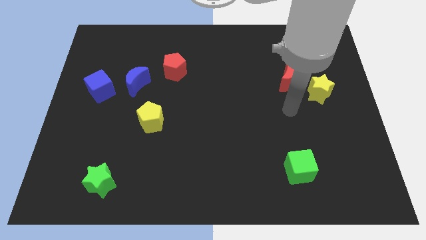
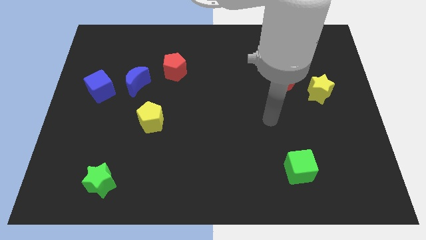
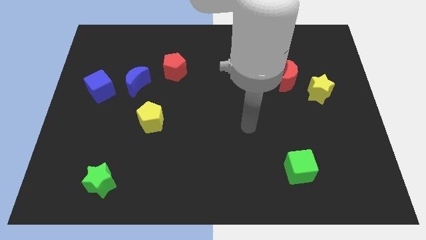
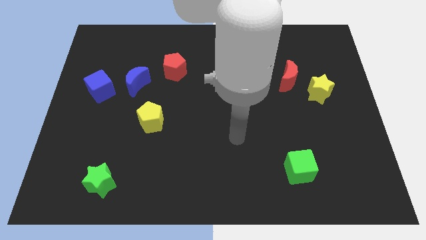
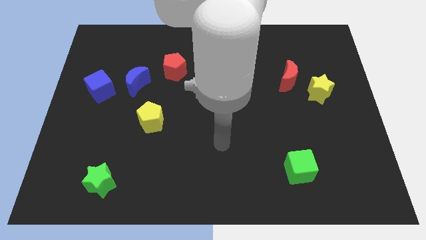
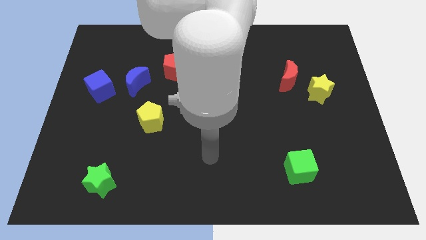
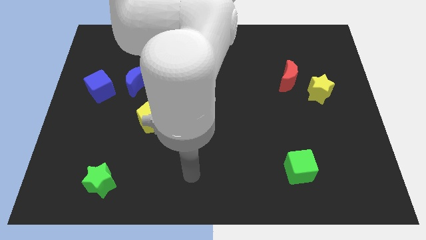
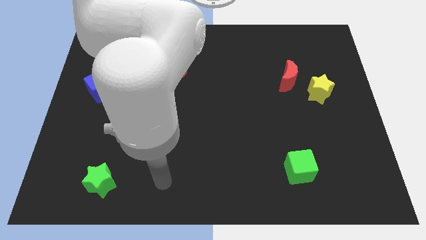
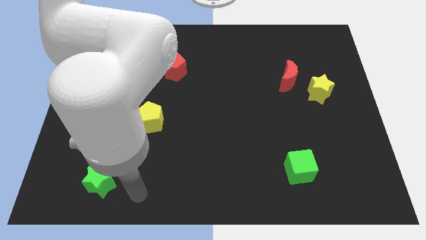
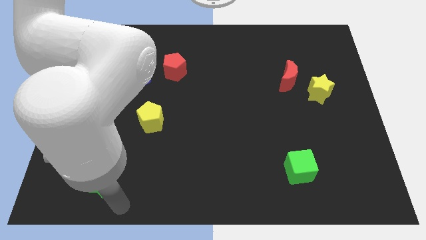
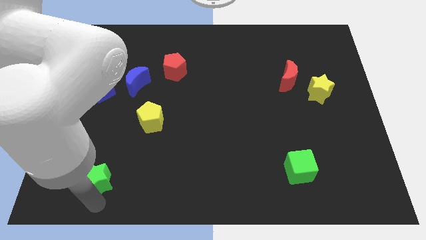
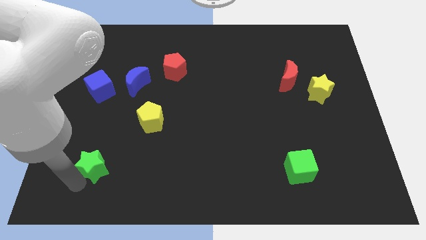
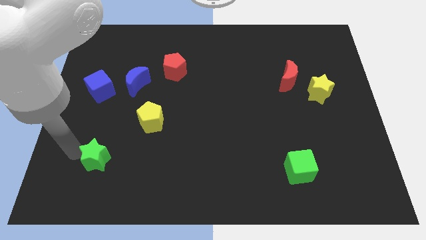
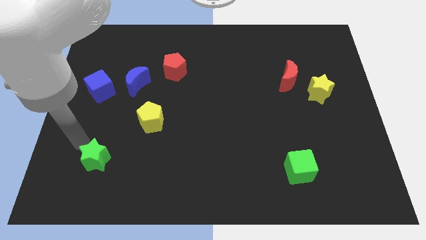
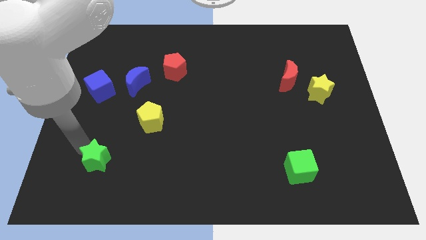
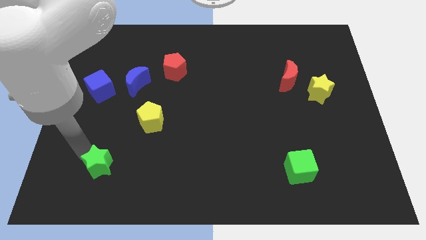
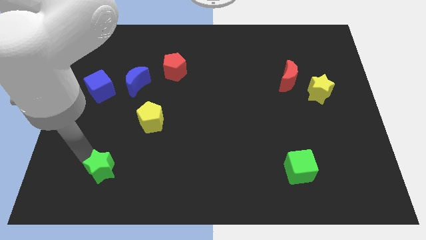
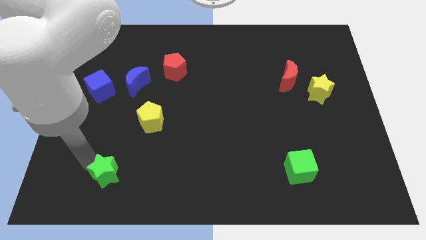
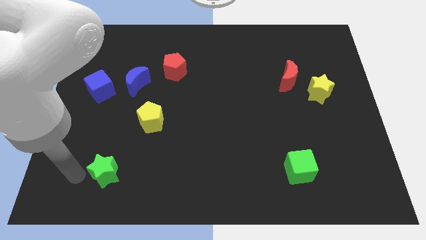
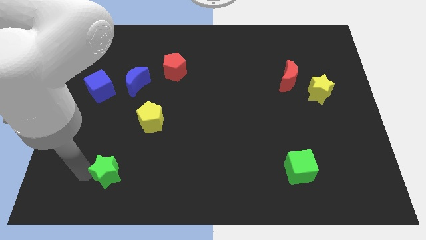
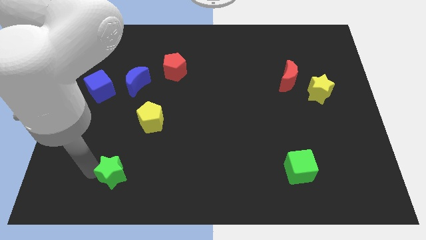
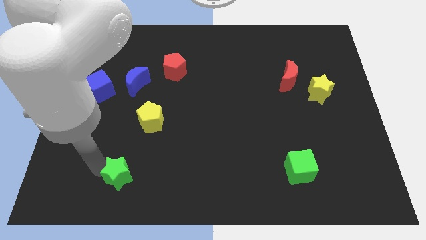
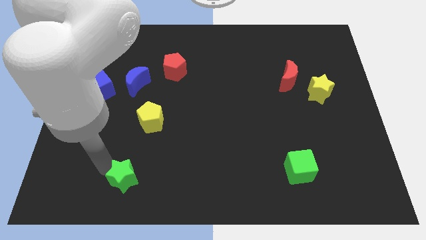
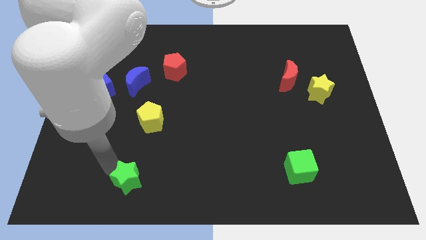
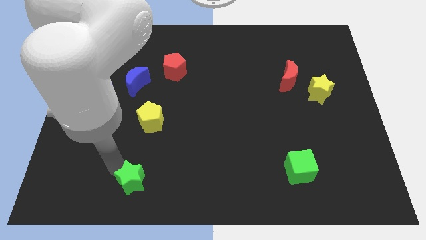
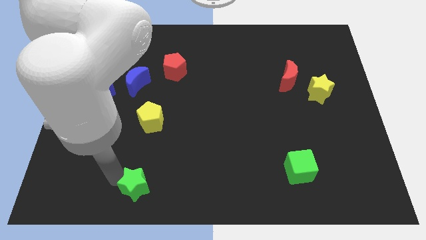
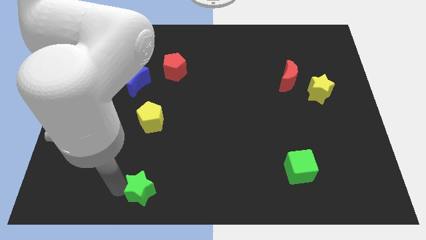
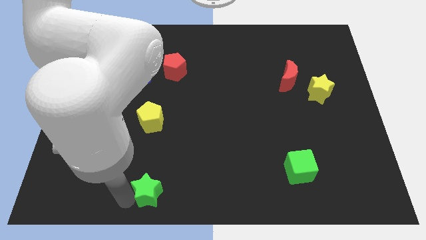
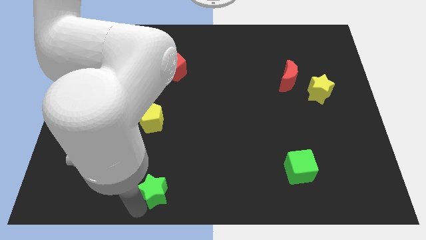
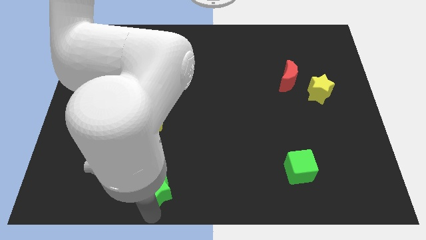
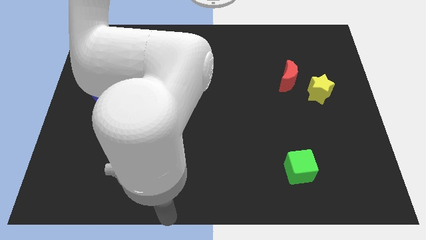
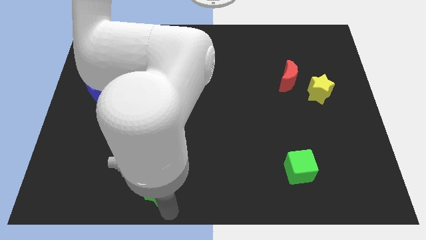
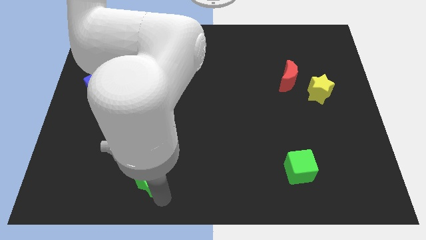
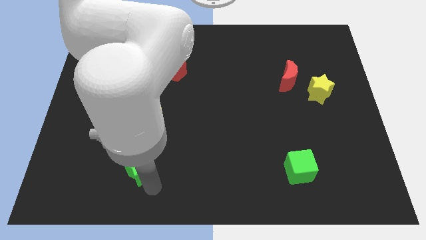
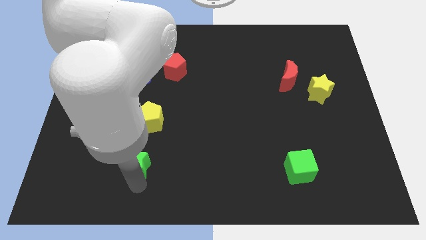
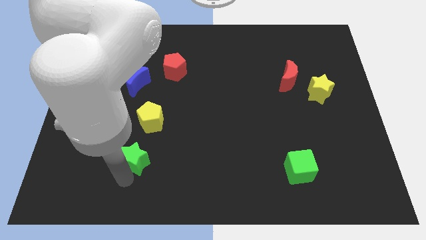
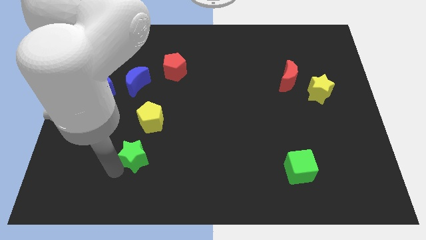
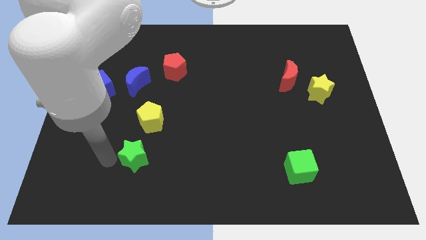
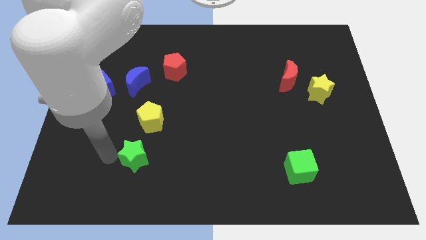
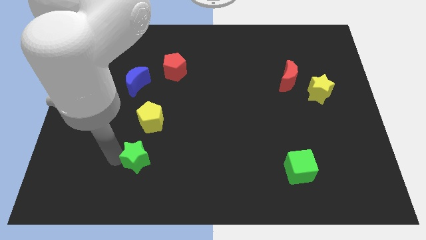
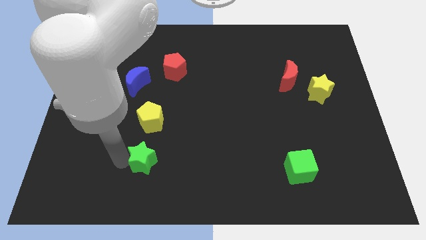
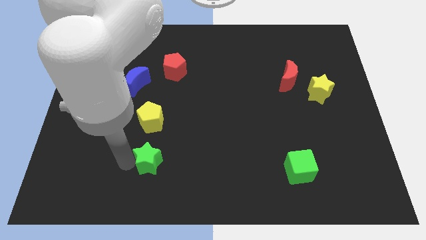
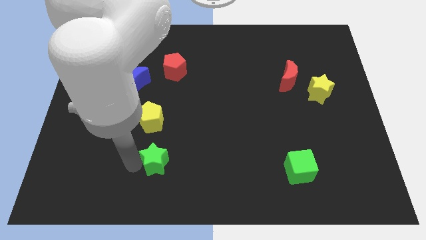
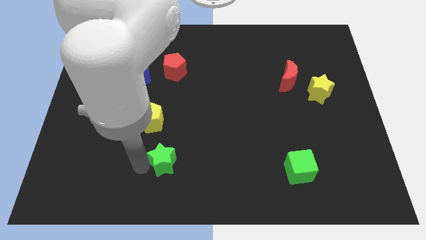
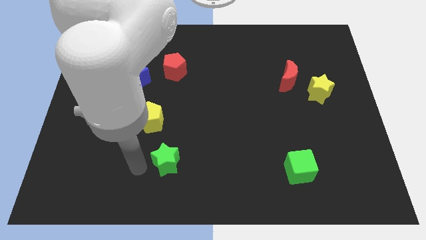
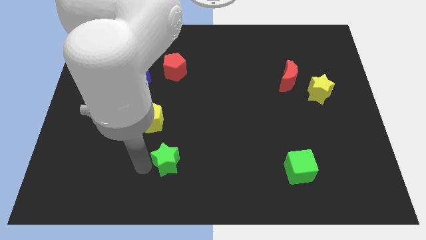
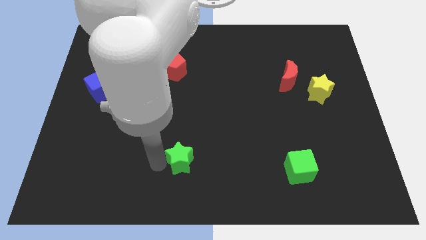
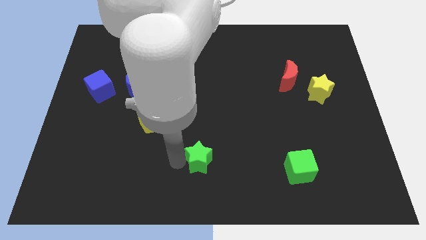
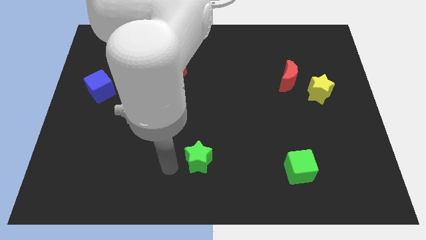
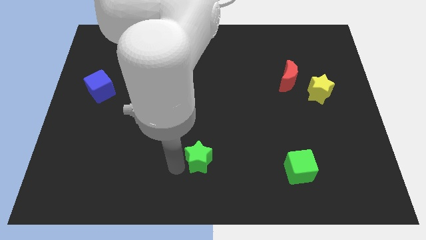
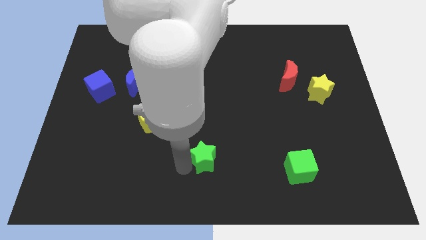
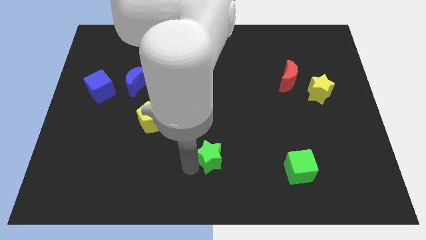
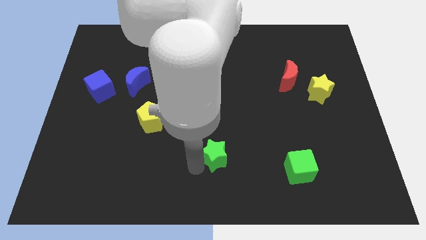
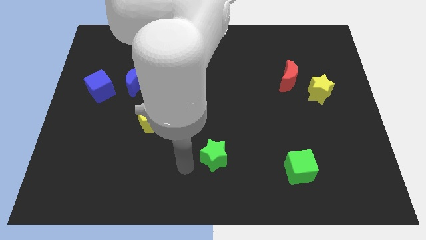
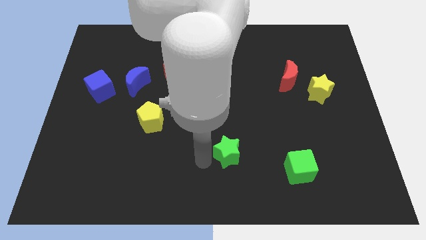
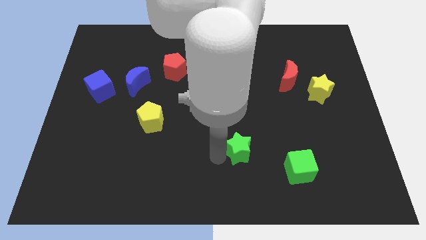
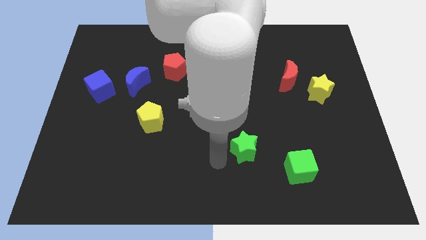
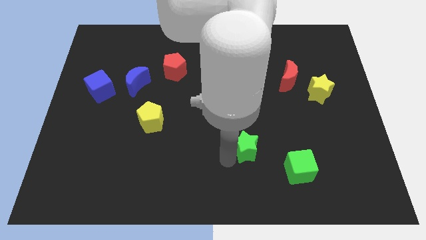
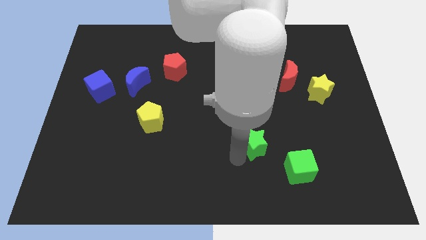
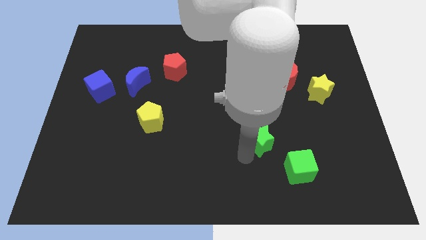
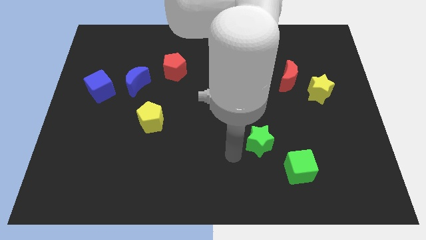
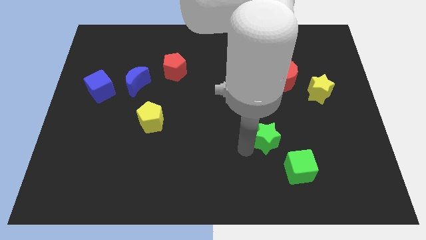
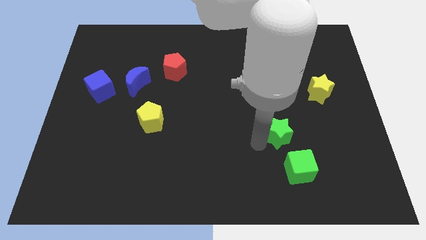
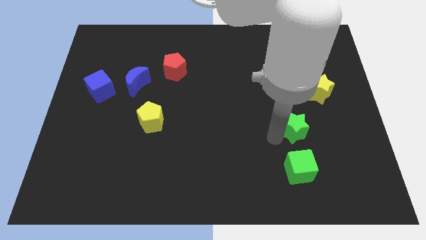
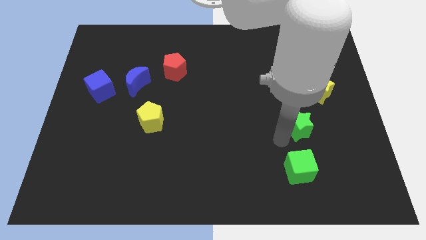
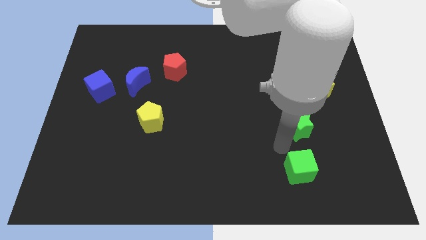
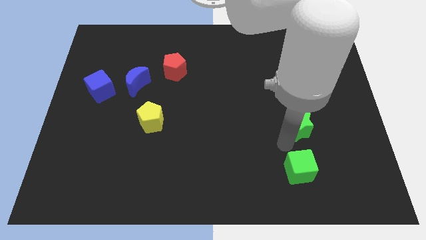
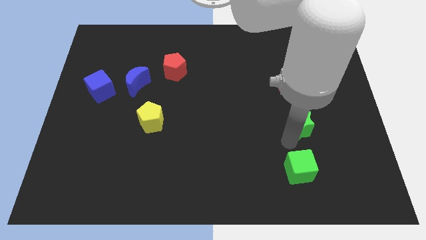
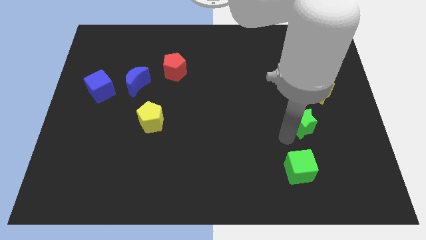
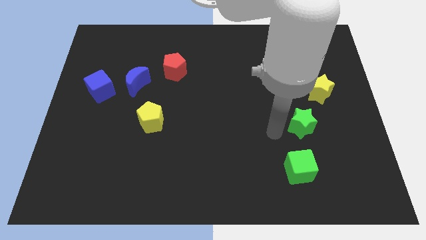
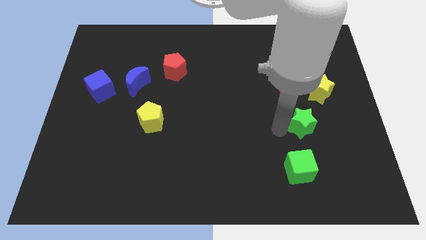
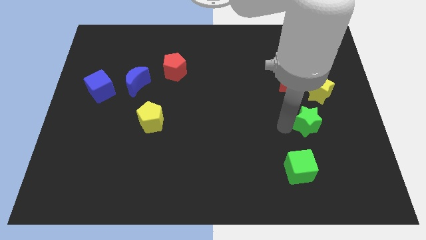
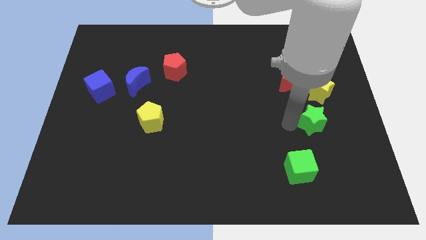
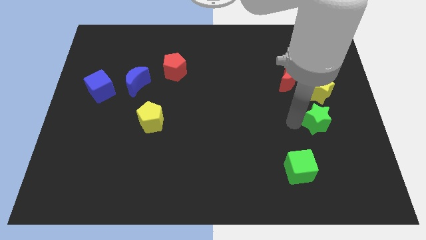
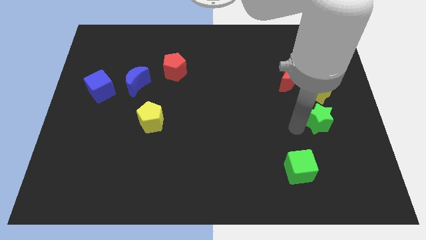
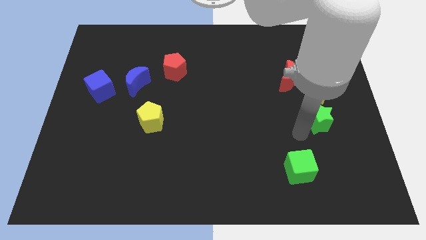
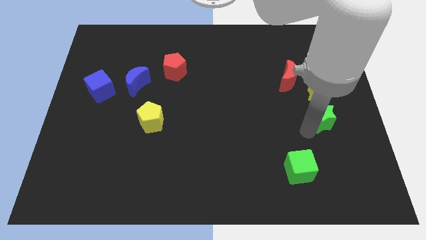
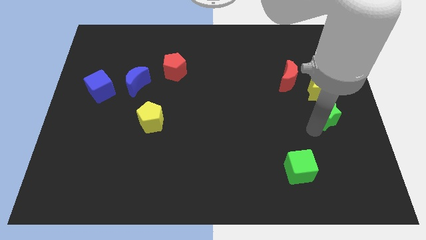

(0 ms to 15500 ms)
move the green star to the right side
